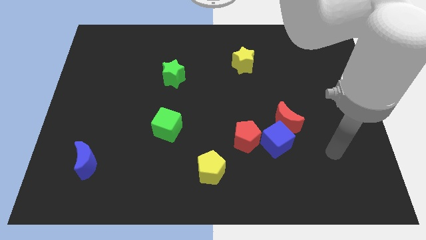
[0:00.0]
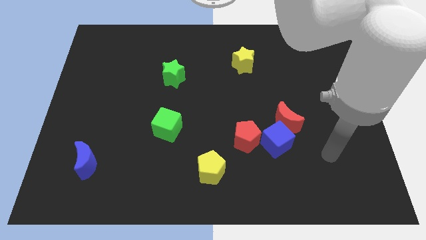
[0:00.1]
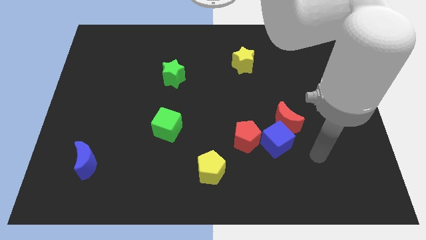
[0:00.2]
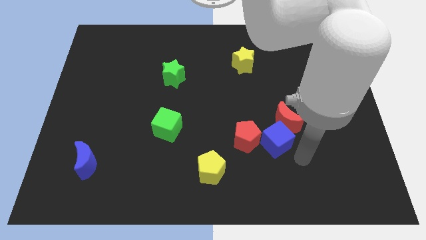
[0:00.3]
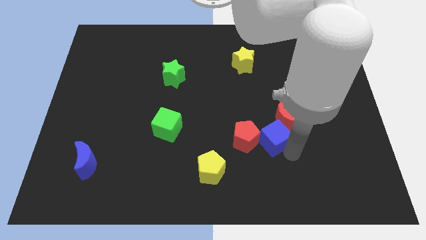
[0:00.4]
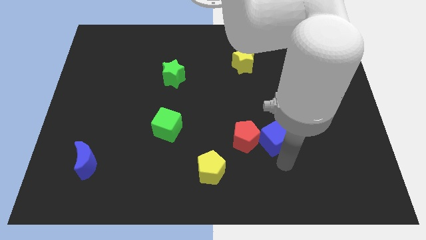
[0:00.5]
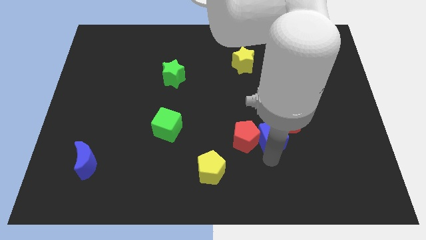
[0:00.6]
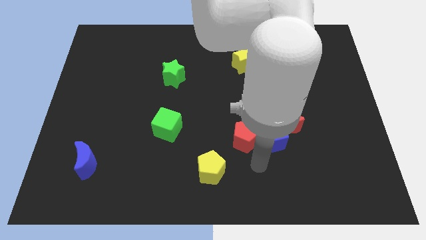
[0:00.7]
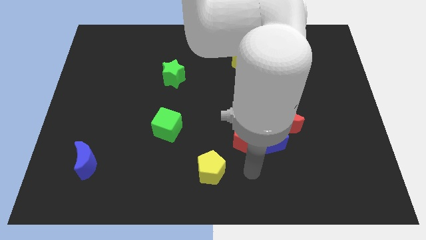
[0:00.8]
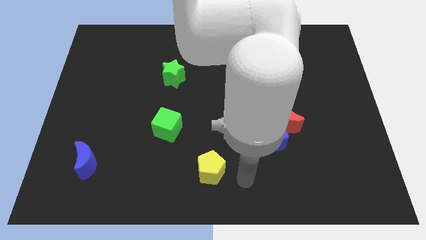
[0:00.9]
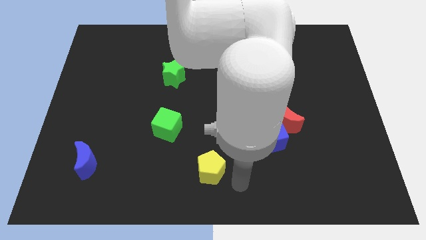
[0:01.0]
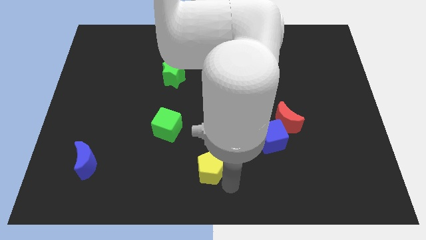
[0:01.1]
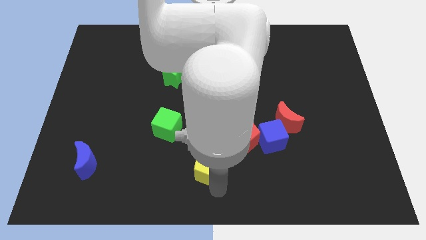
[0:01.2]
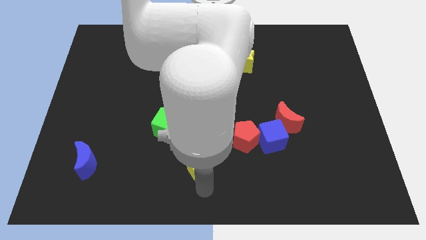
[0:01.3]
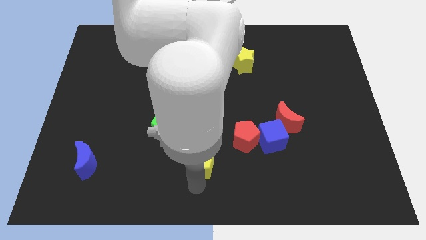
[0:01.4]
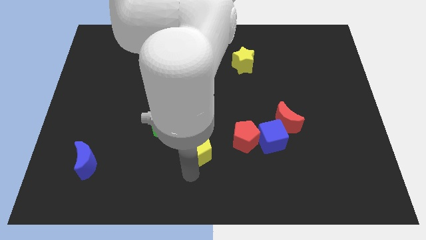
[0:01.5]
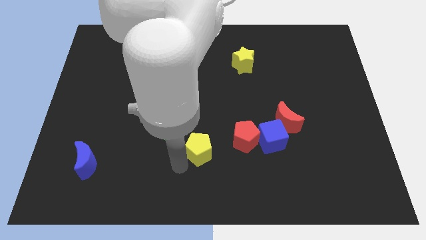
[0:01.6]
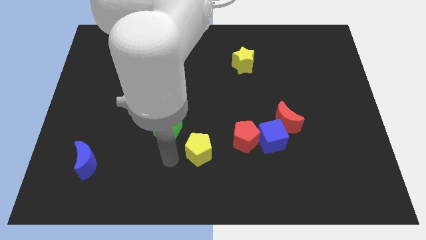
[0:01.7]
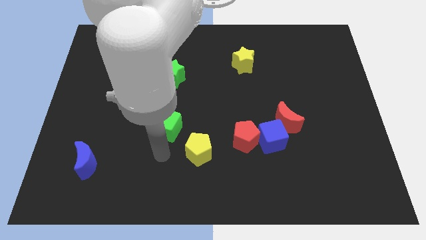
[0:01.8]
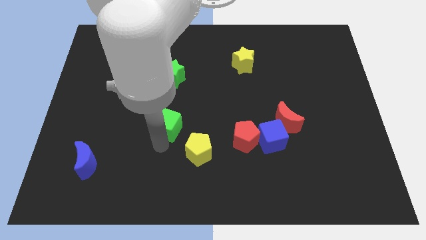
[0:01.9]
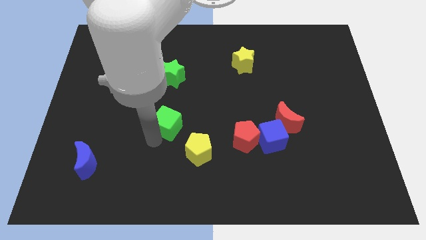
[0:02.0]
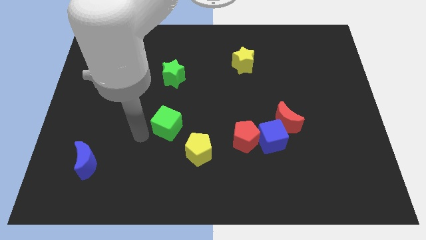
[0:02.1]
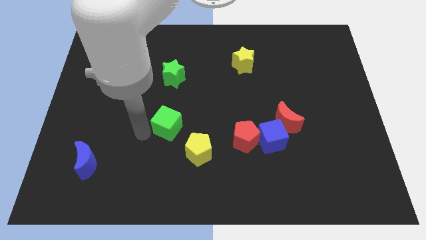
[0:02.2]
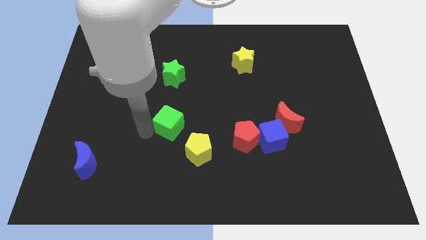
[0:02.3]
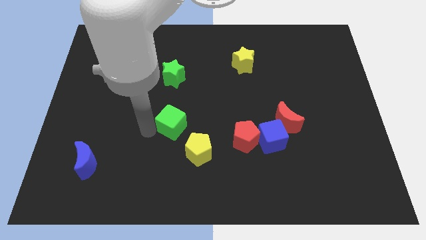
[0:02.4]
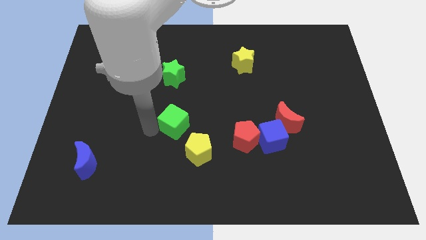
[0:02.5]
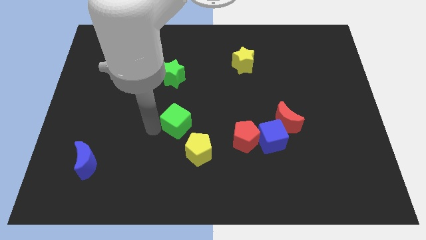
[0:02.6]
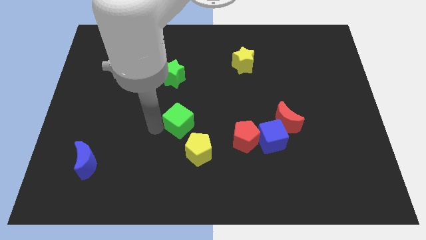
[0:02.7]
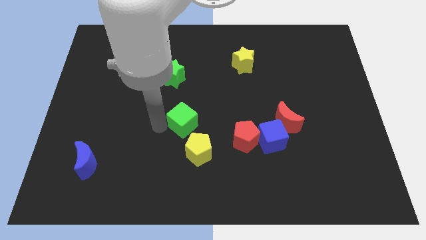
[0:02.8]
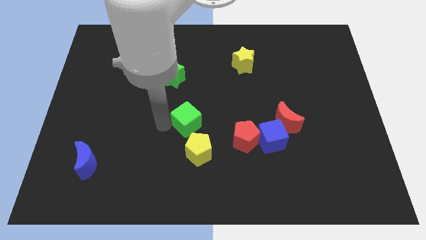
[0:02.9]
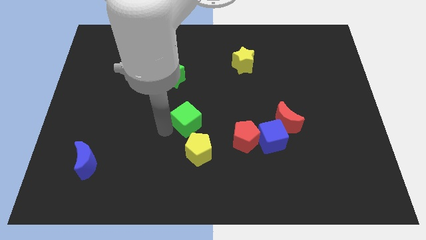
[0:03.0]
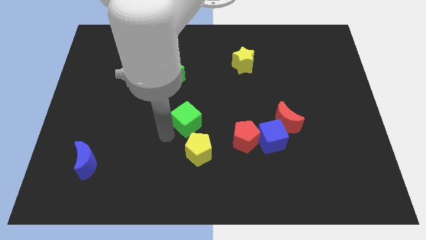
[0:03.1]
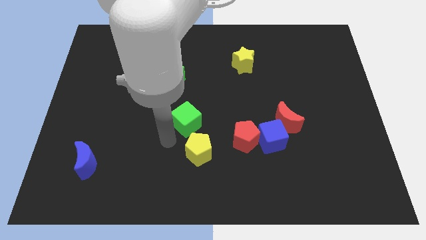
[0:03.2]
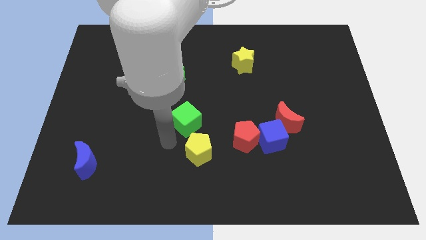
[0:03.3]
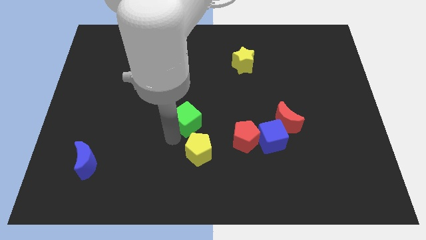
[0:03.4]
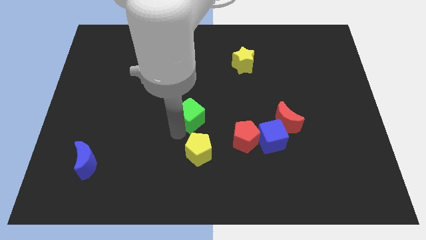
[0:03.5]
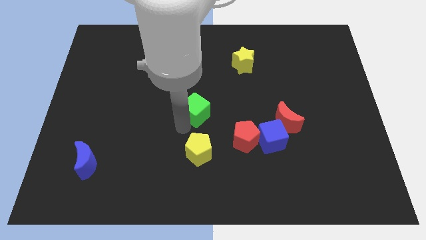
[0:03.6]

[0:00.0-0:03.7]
slightly push the green cube upwards and to the right diagonally

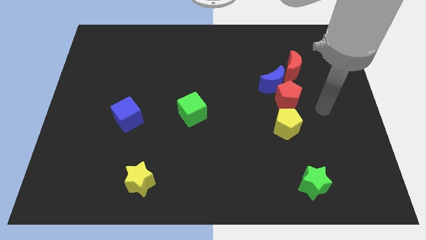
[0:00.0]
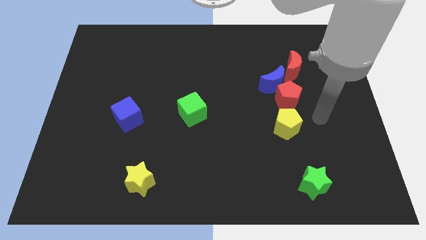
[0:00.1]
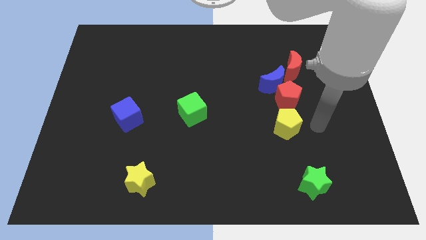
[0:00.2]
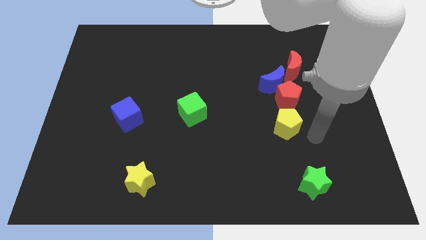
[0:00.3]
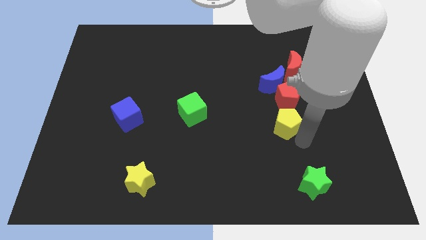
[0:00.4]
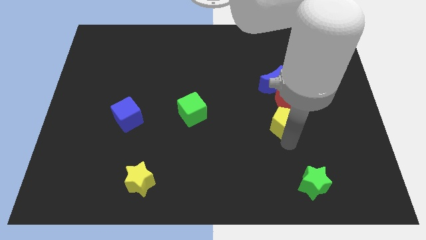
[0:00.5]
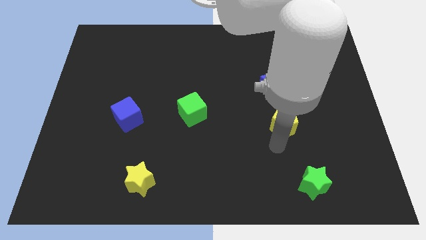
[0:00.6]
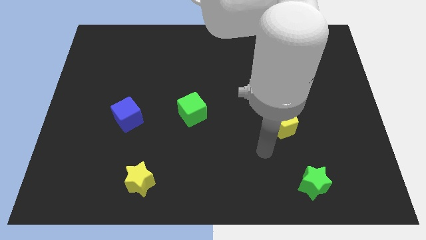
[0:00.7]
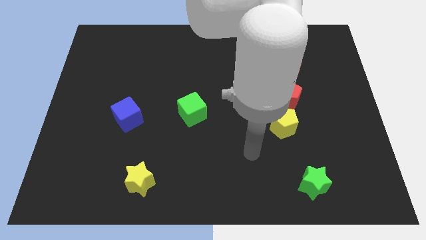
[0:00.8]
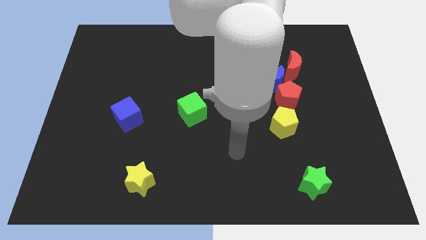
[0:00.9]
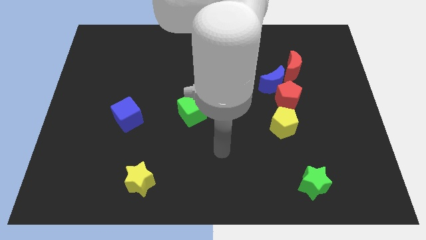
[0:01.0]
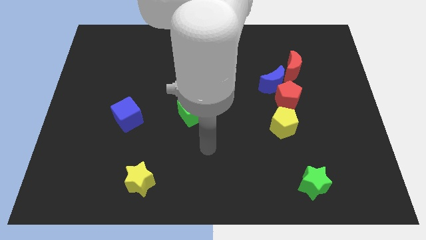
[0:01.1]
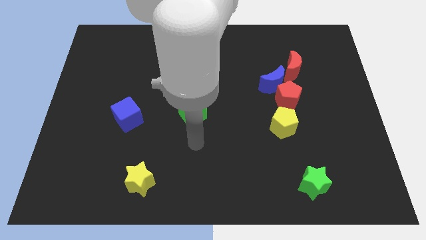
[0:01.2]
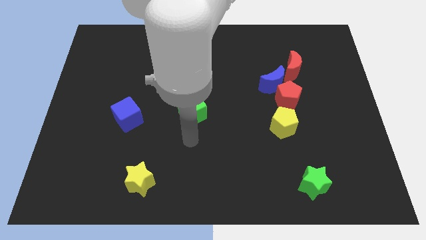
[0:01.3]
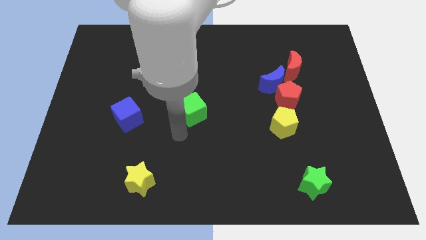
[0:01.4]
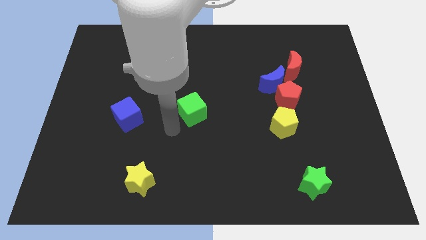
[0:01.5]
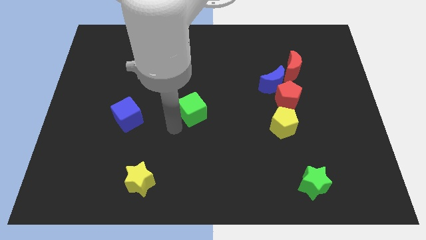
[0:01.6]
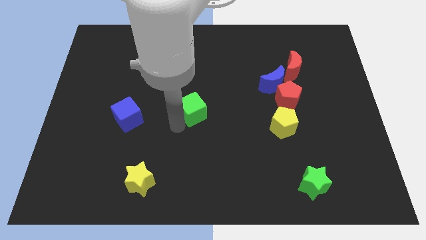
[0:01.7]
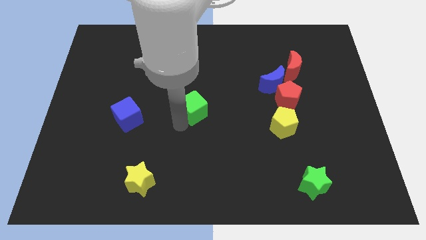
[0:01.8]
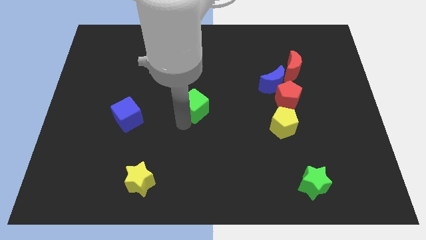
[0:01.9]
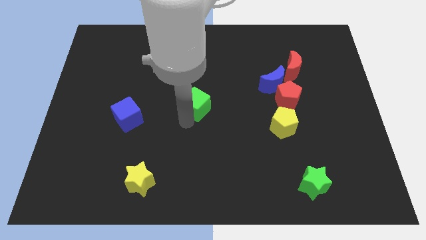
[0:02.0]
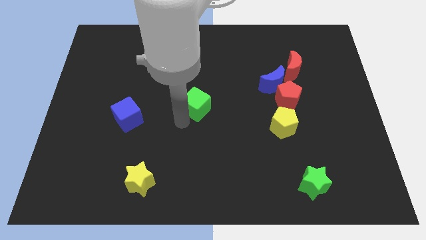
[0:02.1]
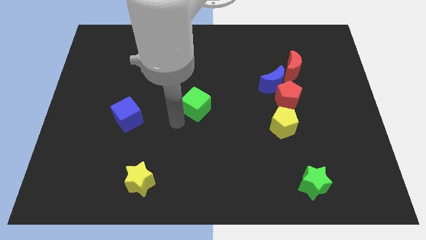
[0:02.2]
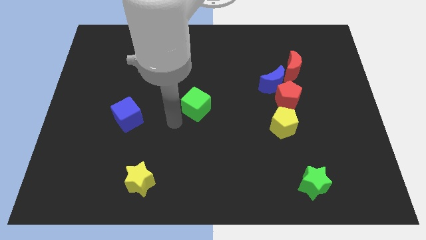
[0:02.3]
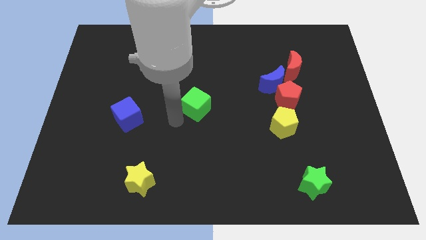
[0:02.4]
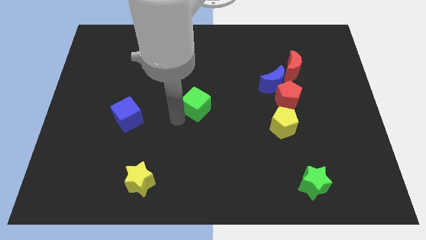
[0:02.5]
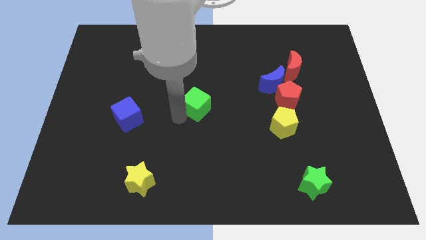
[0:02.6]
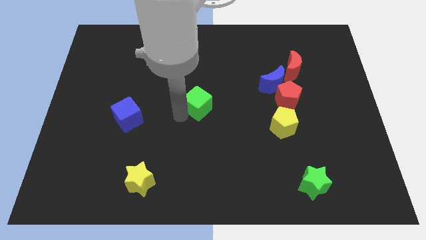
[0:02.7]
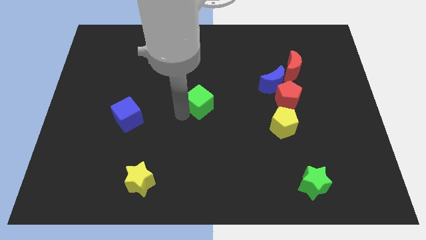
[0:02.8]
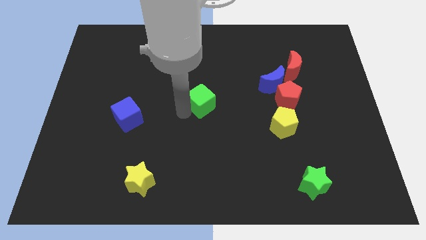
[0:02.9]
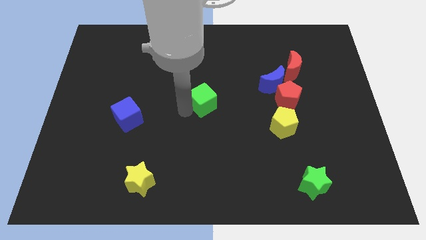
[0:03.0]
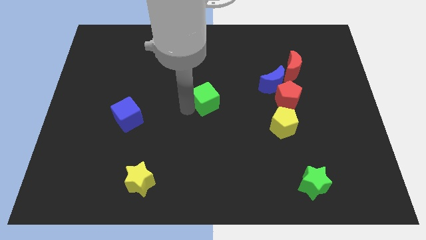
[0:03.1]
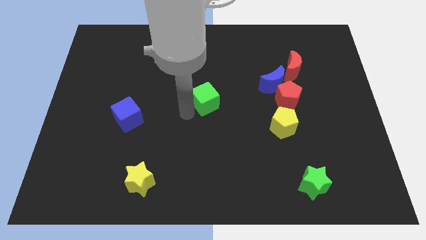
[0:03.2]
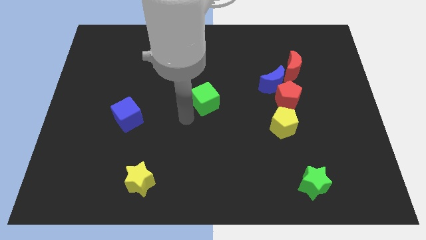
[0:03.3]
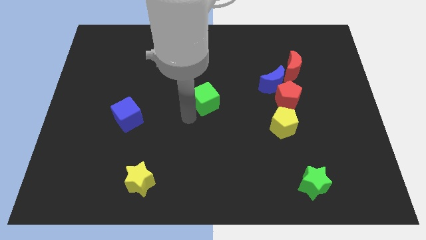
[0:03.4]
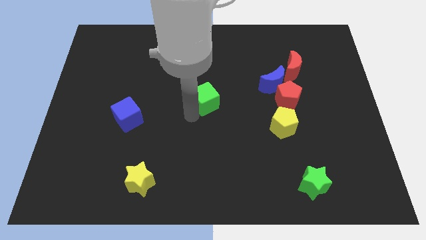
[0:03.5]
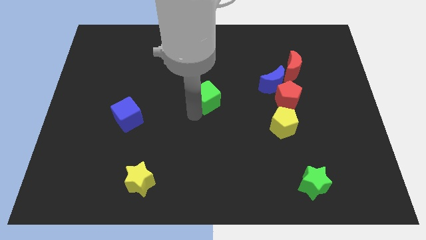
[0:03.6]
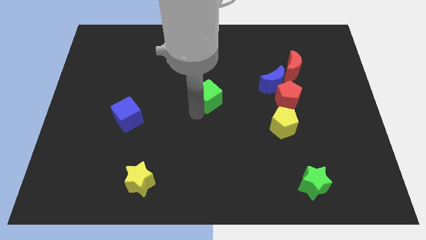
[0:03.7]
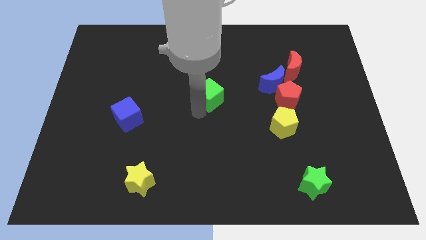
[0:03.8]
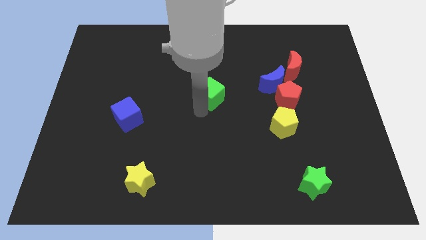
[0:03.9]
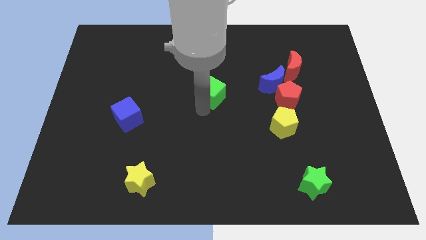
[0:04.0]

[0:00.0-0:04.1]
move the green cube a little bit up and then to the right
